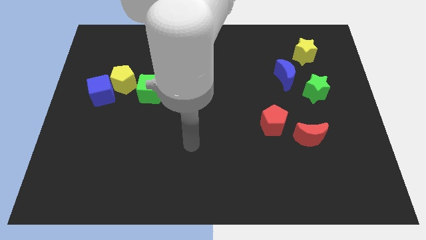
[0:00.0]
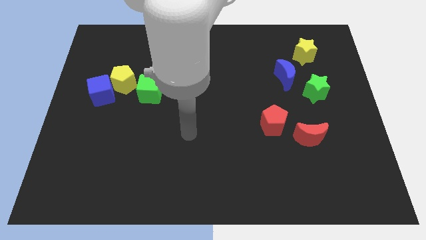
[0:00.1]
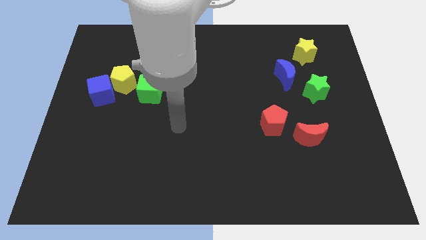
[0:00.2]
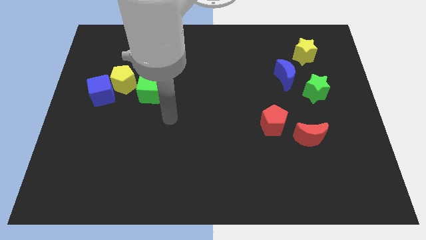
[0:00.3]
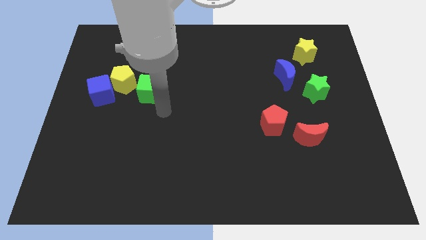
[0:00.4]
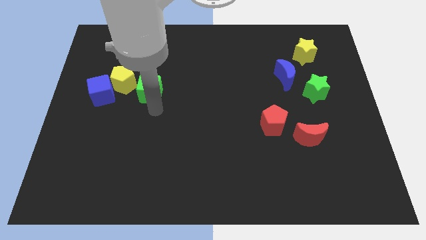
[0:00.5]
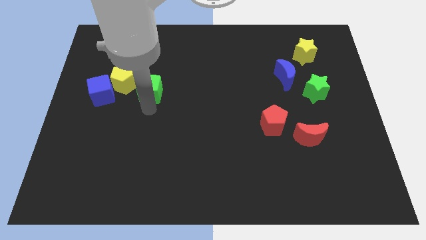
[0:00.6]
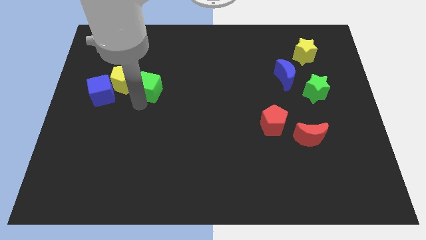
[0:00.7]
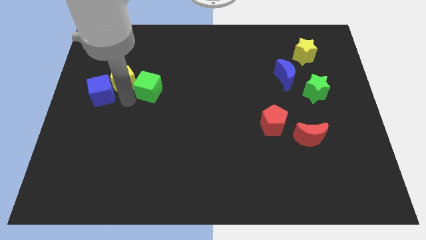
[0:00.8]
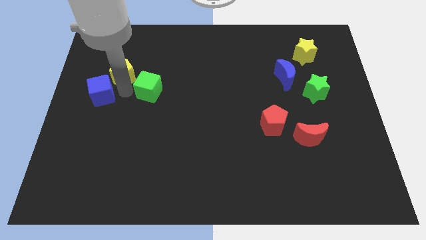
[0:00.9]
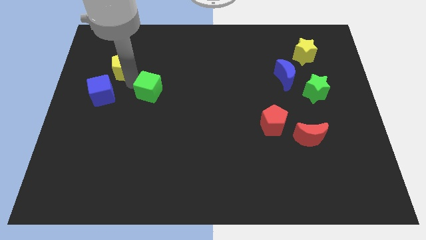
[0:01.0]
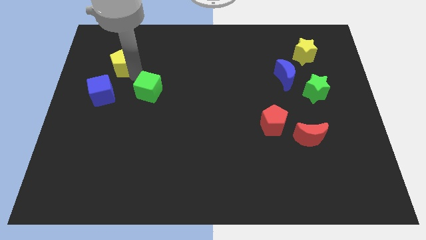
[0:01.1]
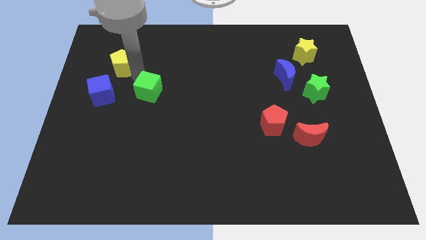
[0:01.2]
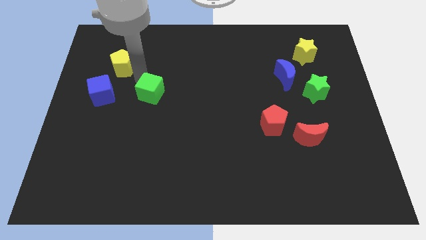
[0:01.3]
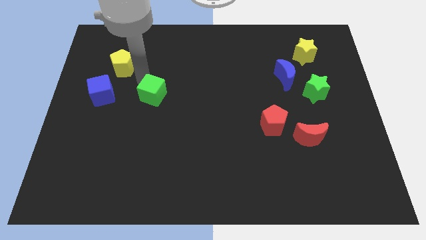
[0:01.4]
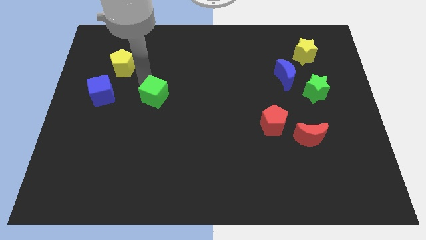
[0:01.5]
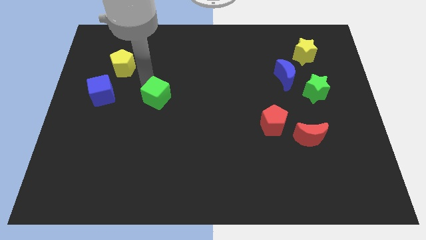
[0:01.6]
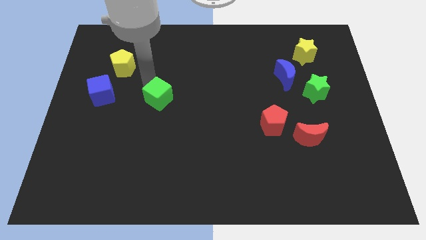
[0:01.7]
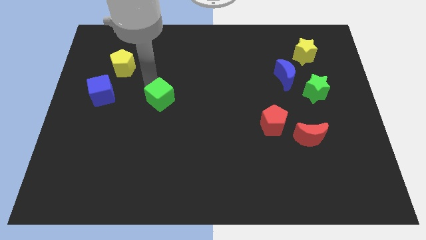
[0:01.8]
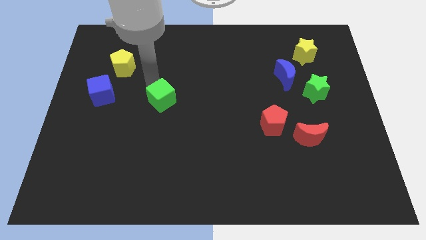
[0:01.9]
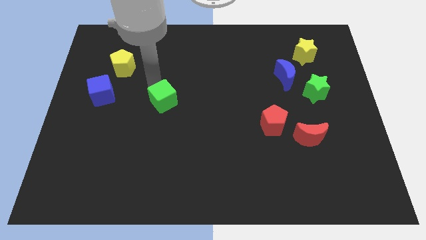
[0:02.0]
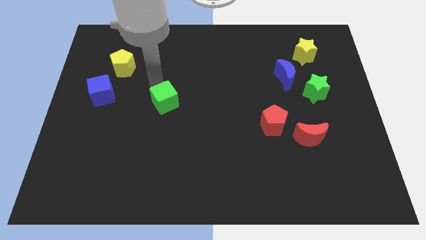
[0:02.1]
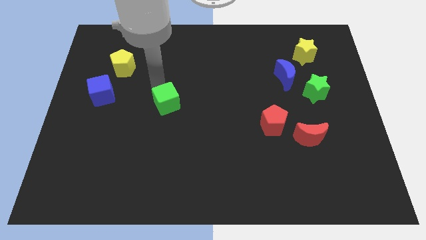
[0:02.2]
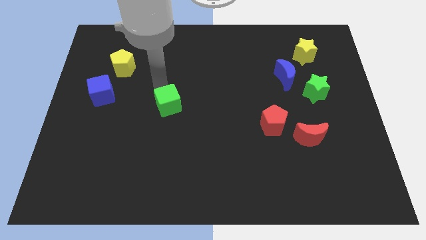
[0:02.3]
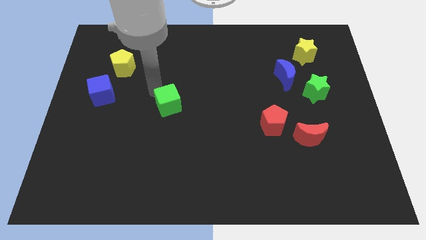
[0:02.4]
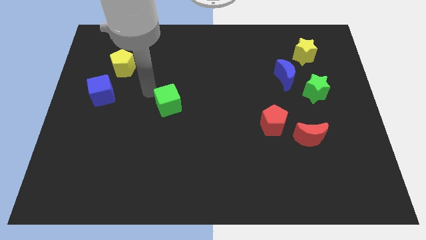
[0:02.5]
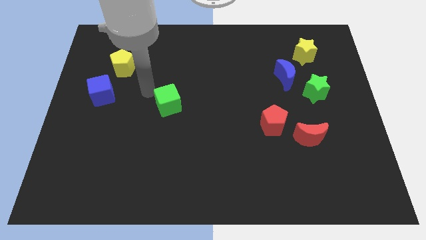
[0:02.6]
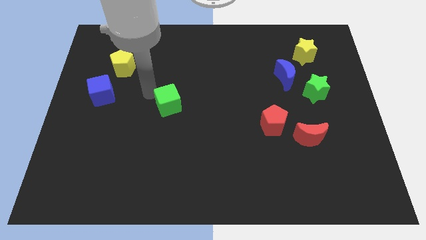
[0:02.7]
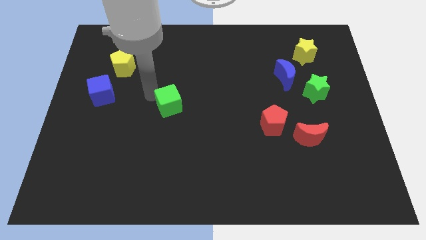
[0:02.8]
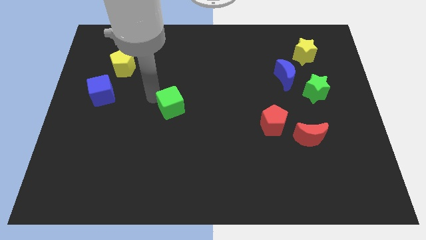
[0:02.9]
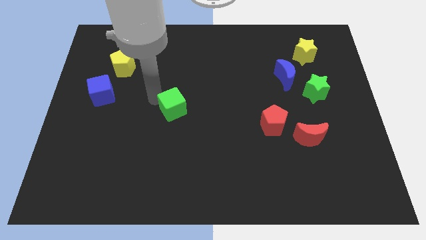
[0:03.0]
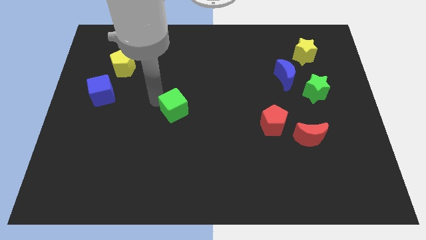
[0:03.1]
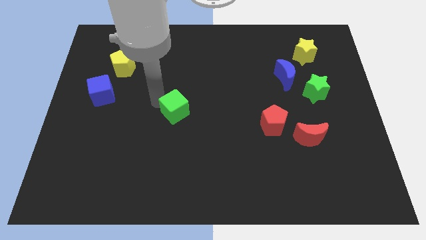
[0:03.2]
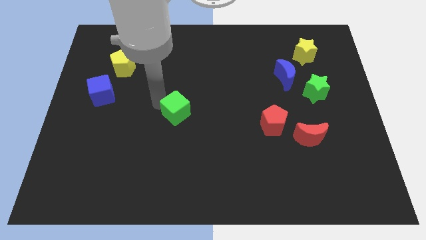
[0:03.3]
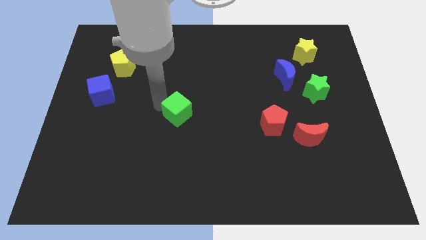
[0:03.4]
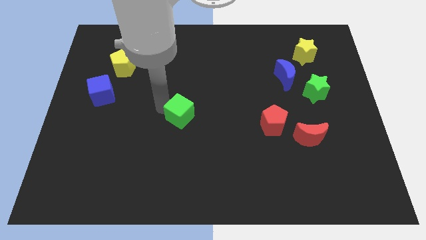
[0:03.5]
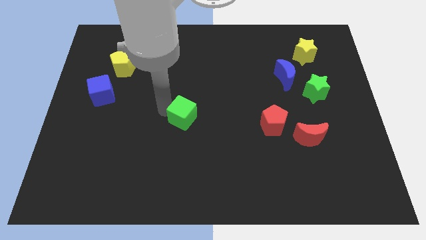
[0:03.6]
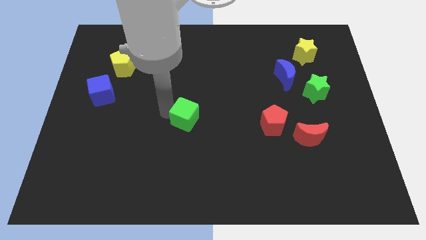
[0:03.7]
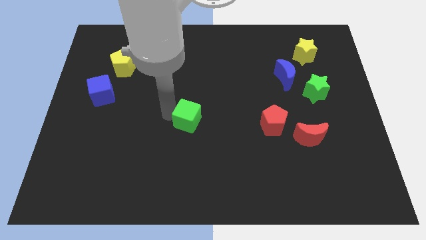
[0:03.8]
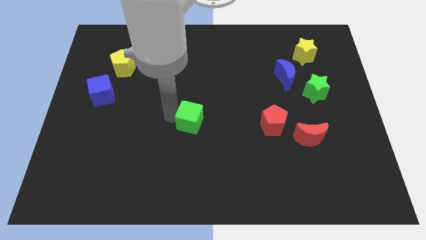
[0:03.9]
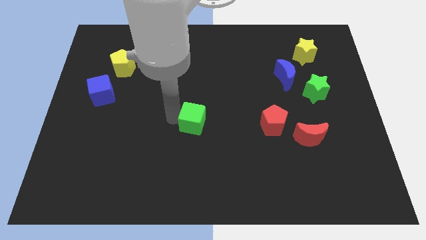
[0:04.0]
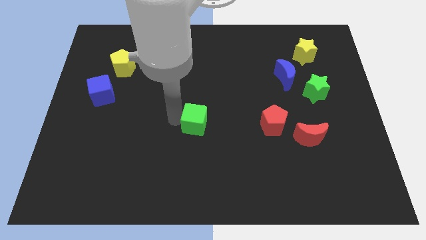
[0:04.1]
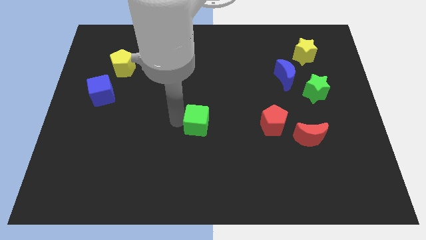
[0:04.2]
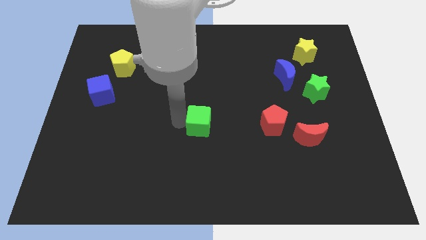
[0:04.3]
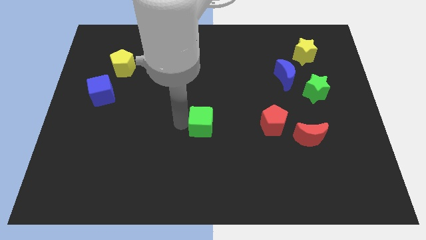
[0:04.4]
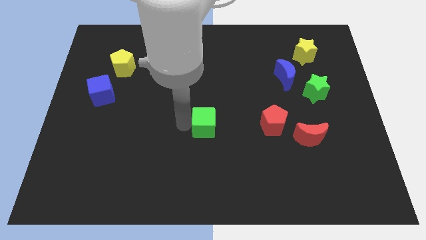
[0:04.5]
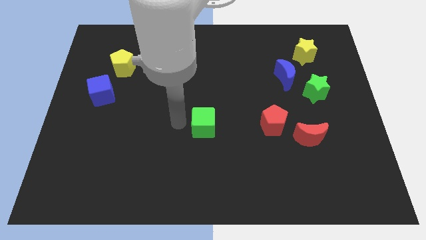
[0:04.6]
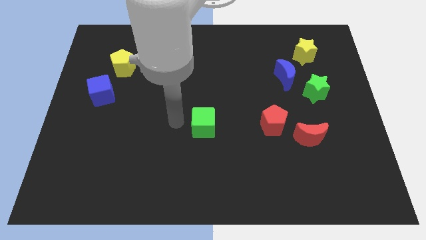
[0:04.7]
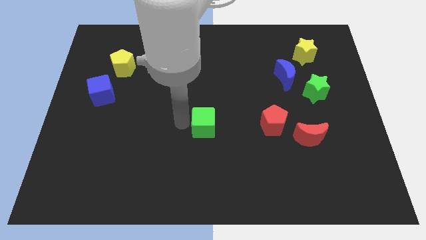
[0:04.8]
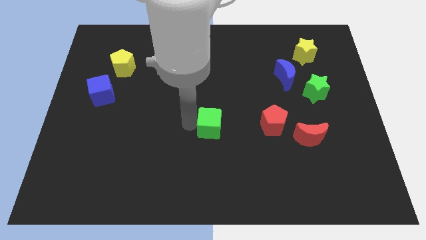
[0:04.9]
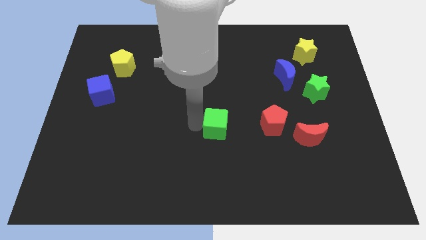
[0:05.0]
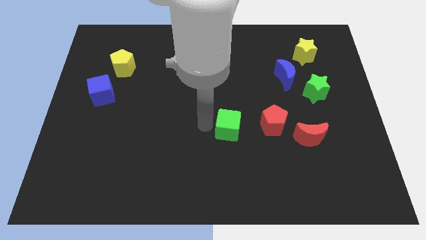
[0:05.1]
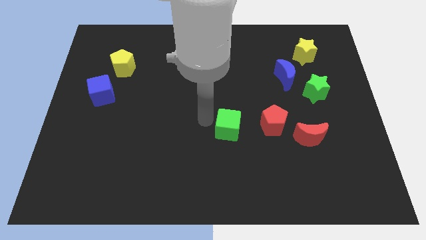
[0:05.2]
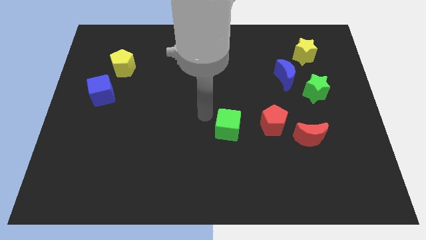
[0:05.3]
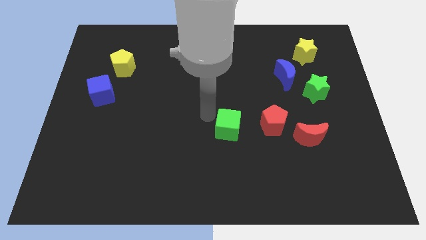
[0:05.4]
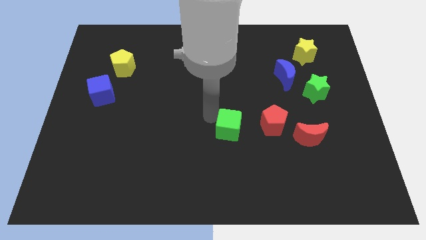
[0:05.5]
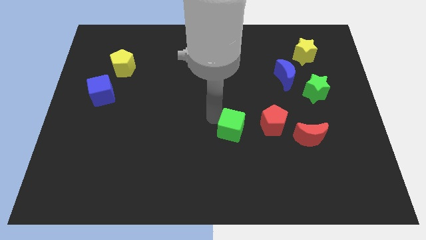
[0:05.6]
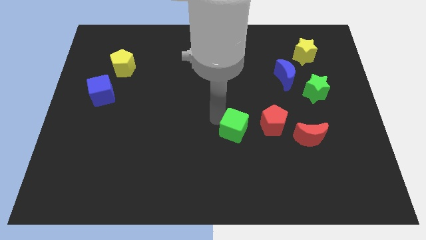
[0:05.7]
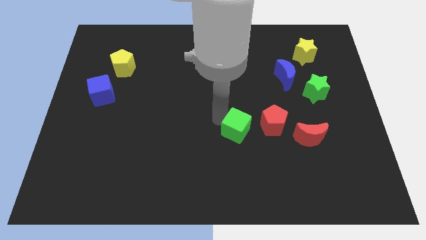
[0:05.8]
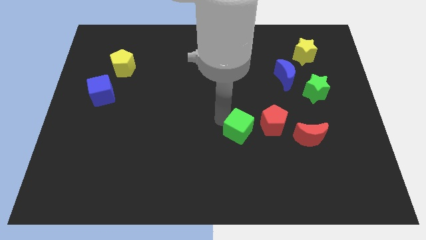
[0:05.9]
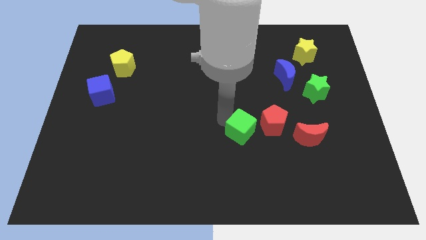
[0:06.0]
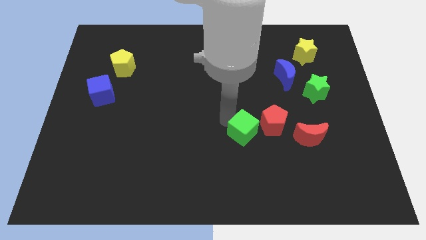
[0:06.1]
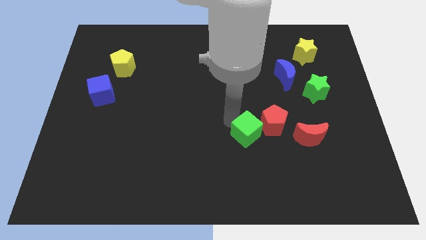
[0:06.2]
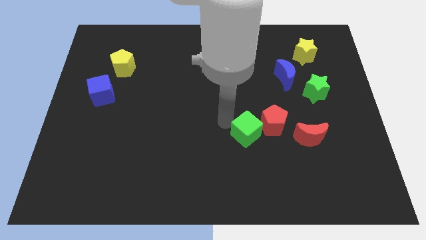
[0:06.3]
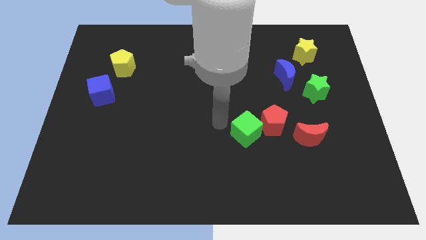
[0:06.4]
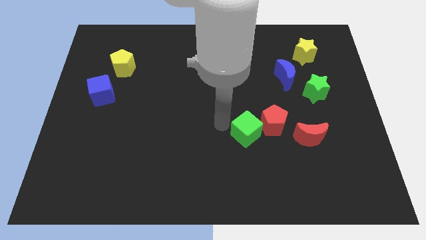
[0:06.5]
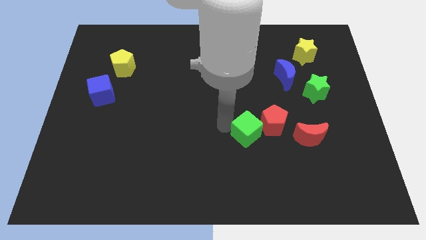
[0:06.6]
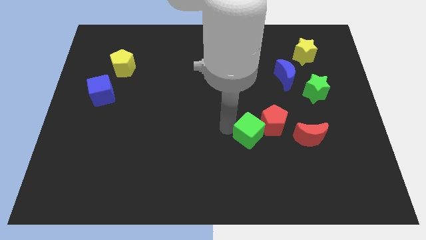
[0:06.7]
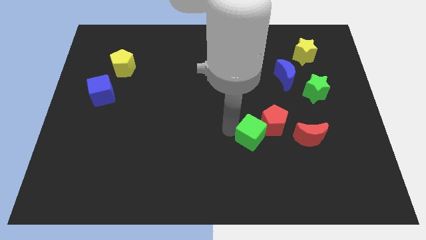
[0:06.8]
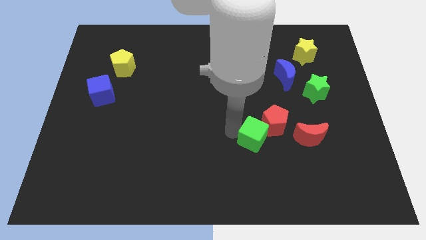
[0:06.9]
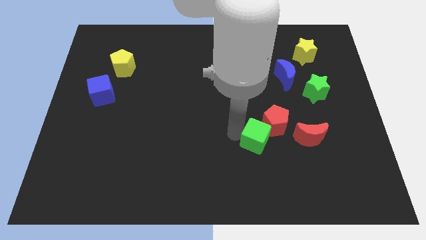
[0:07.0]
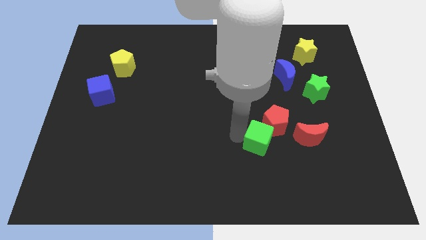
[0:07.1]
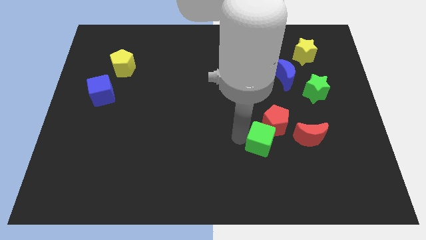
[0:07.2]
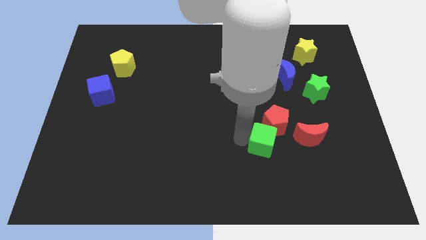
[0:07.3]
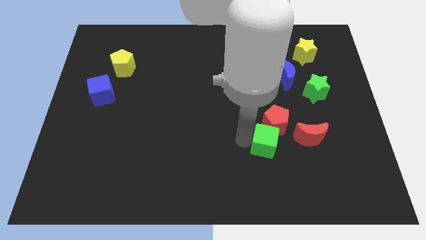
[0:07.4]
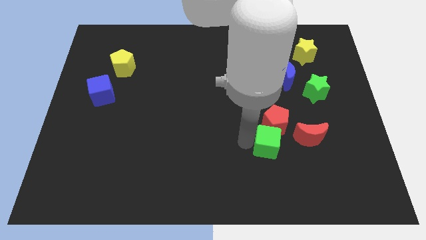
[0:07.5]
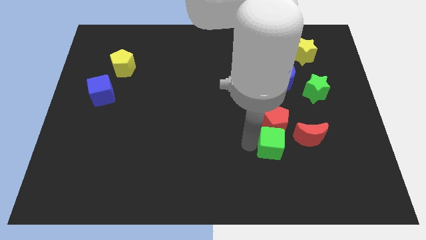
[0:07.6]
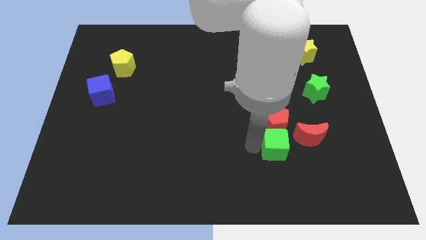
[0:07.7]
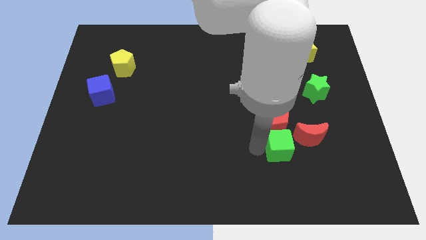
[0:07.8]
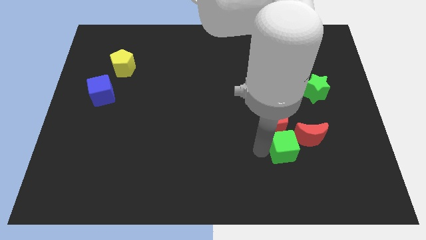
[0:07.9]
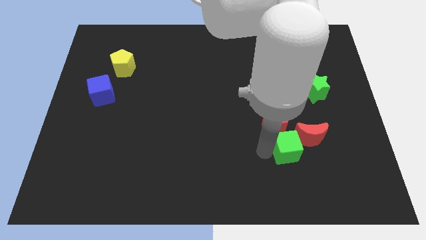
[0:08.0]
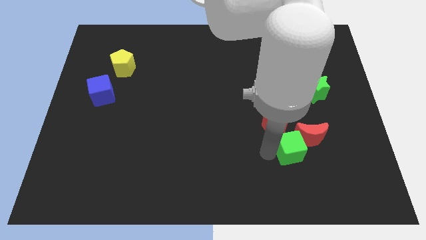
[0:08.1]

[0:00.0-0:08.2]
put the green cube close to the red moon
